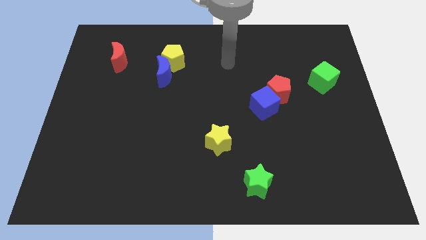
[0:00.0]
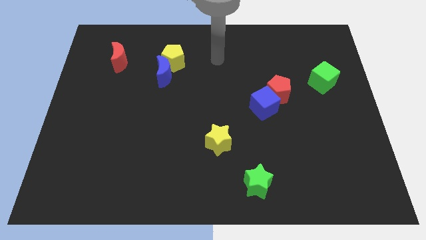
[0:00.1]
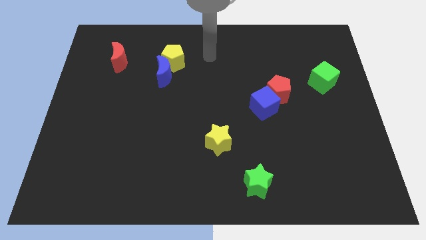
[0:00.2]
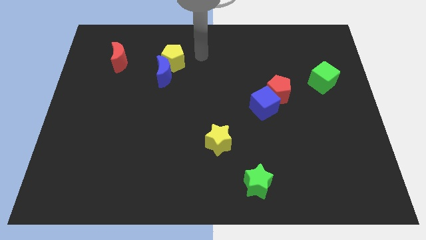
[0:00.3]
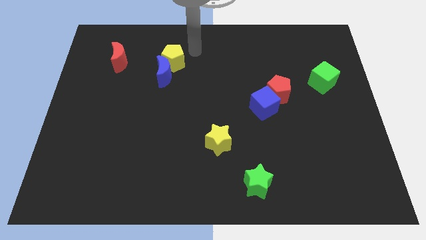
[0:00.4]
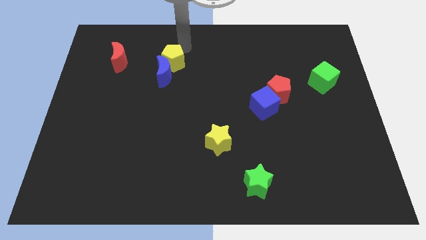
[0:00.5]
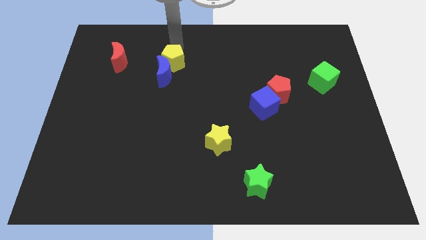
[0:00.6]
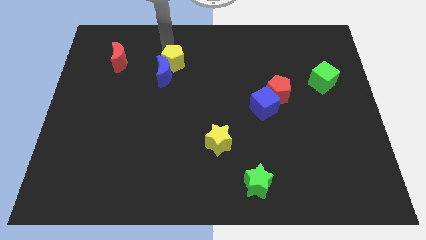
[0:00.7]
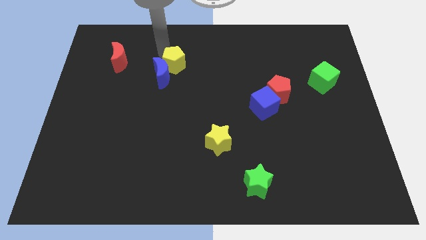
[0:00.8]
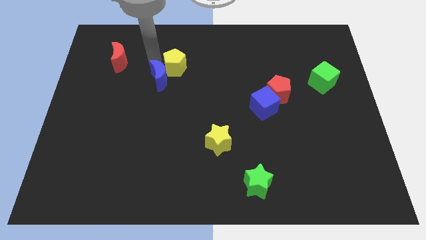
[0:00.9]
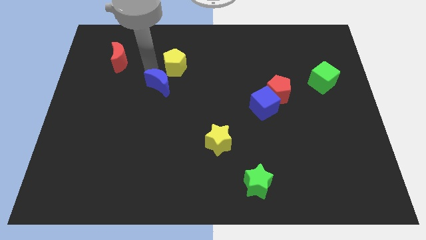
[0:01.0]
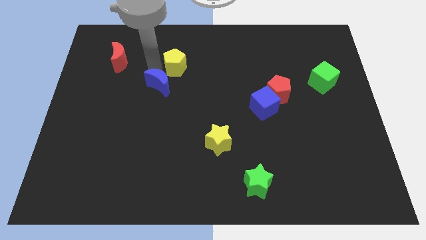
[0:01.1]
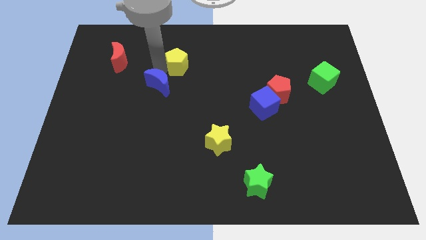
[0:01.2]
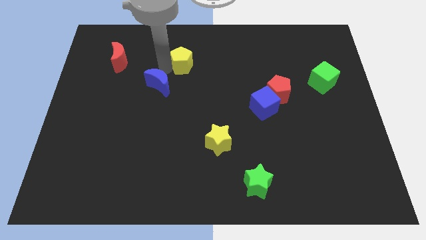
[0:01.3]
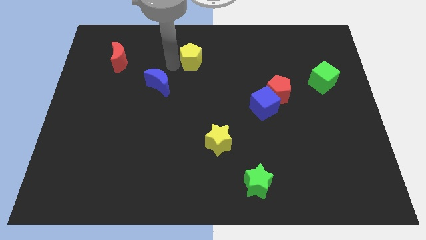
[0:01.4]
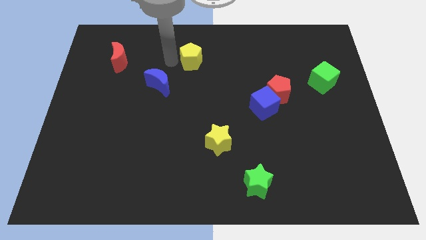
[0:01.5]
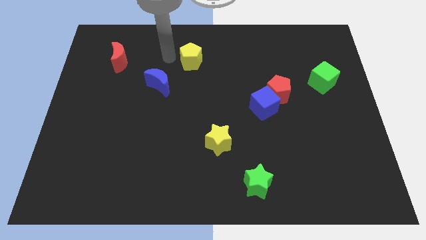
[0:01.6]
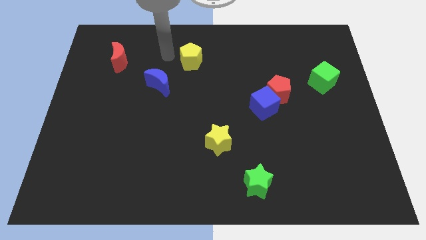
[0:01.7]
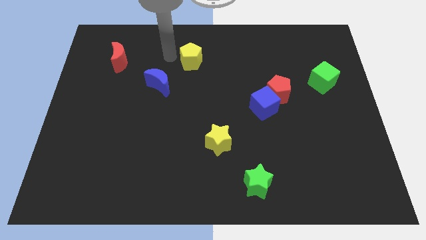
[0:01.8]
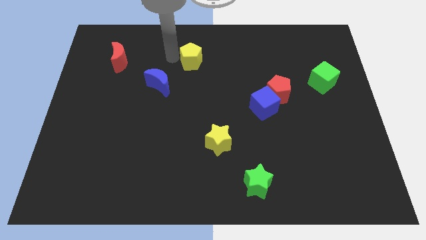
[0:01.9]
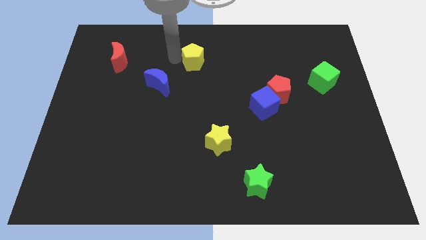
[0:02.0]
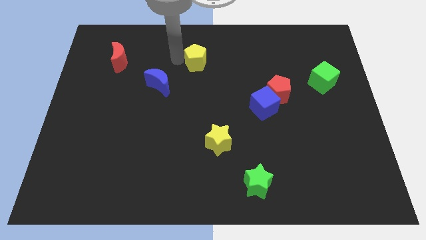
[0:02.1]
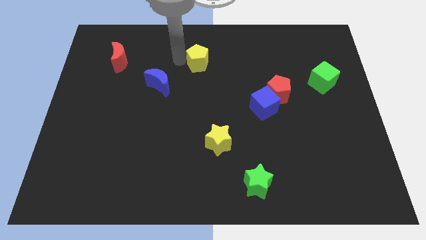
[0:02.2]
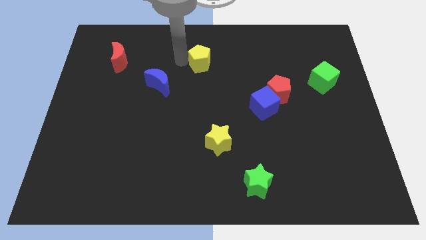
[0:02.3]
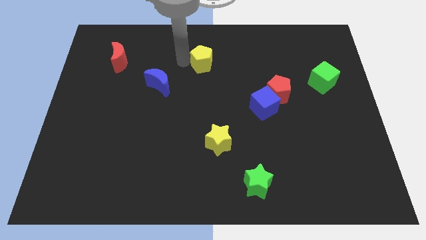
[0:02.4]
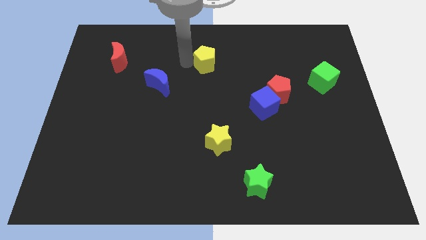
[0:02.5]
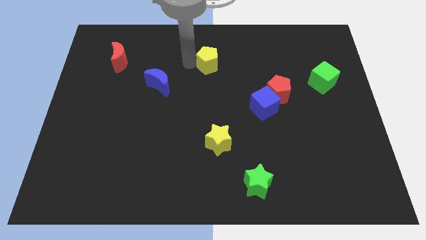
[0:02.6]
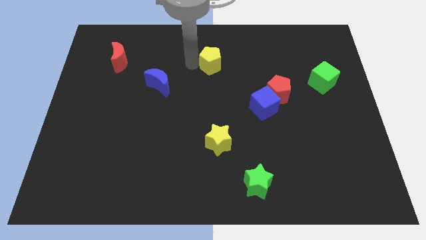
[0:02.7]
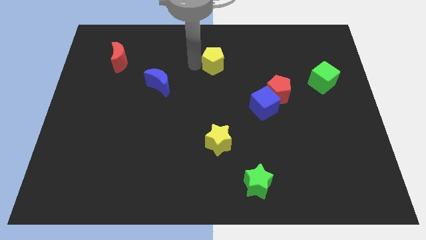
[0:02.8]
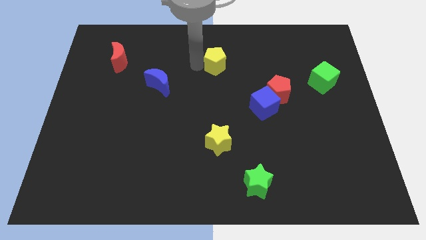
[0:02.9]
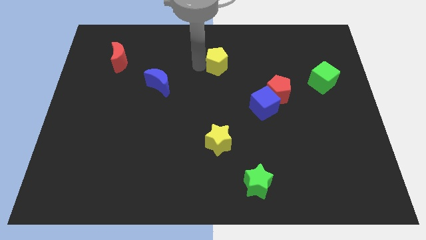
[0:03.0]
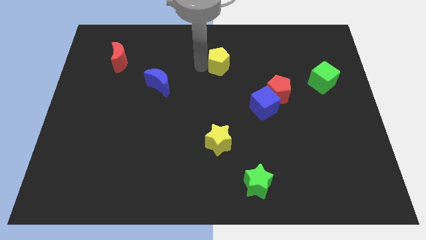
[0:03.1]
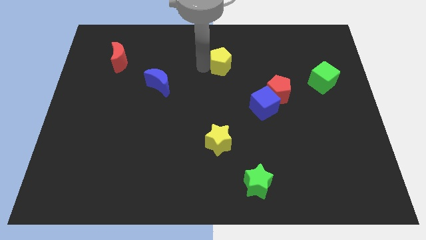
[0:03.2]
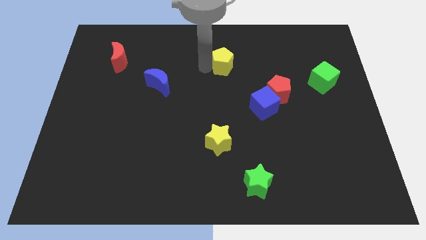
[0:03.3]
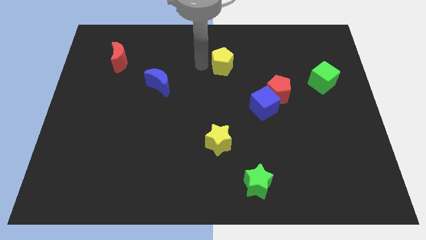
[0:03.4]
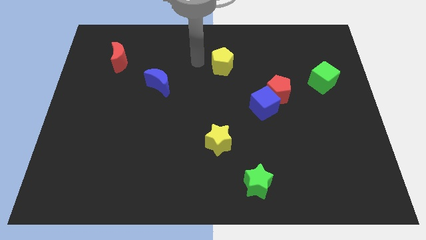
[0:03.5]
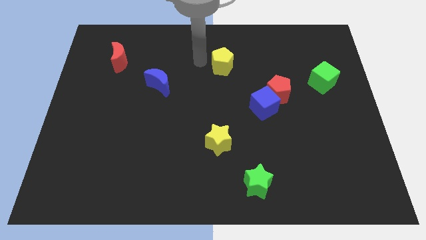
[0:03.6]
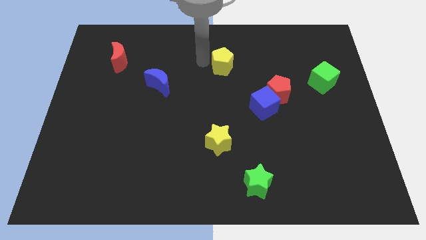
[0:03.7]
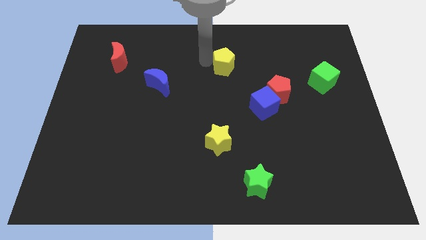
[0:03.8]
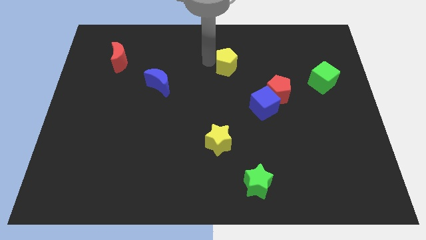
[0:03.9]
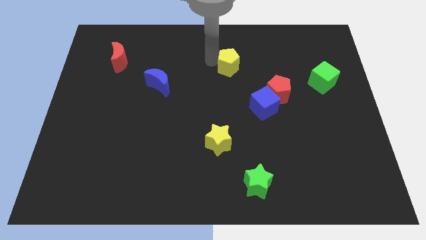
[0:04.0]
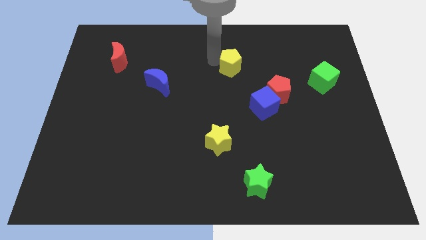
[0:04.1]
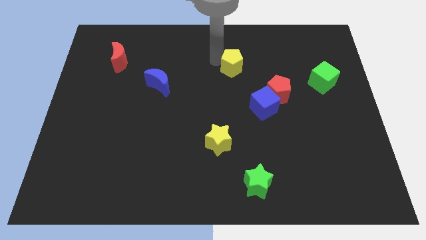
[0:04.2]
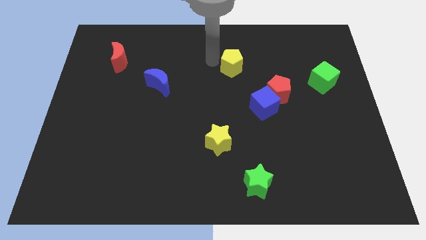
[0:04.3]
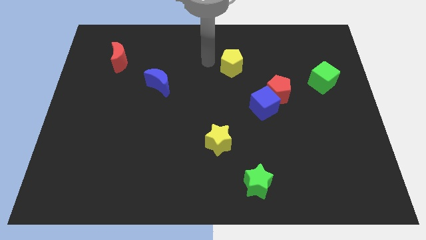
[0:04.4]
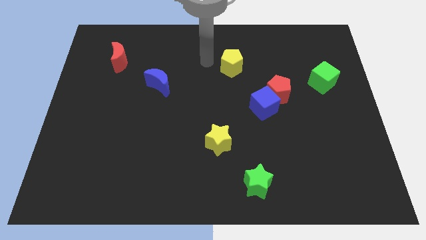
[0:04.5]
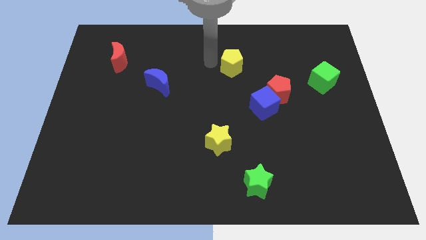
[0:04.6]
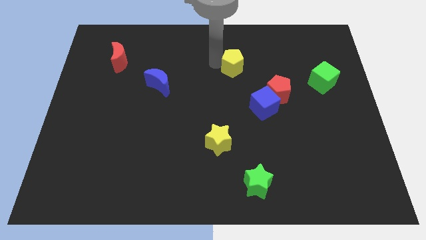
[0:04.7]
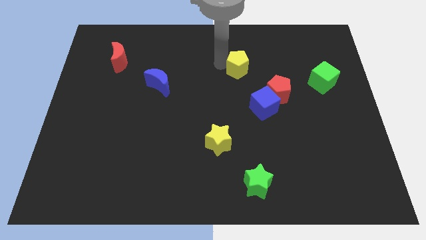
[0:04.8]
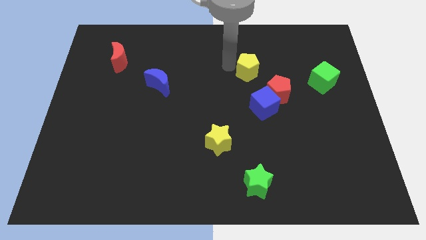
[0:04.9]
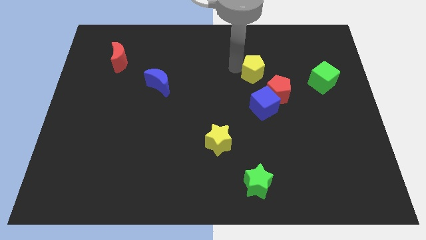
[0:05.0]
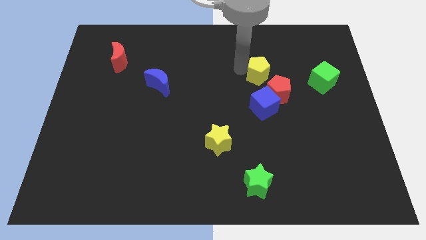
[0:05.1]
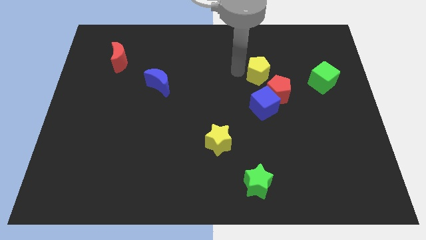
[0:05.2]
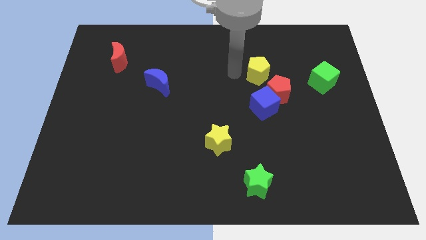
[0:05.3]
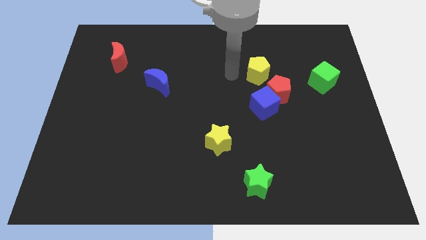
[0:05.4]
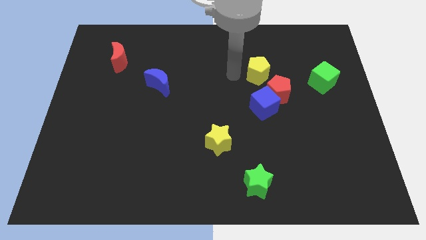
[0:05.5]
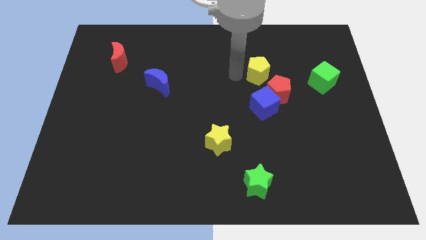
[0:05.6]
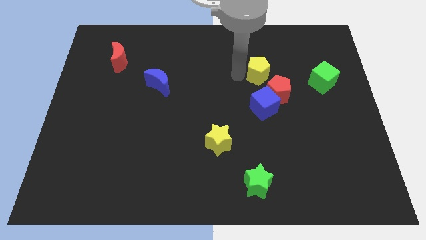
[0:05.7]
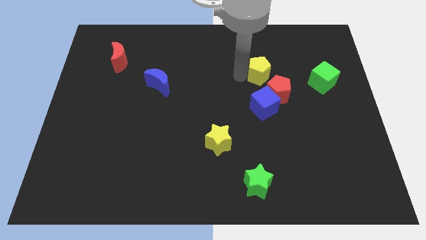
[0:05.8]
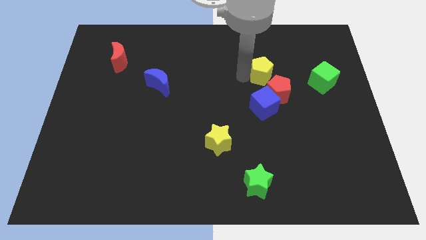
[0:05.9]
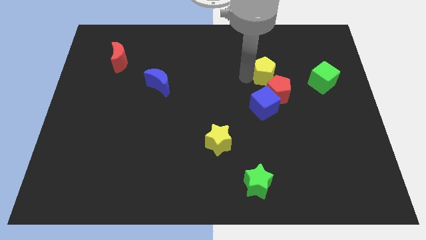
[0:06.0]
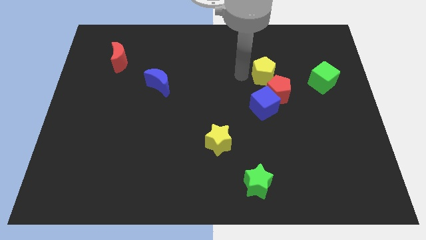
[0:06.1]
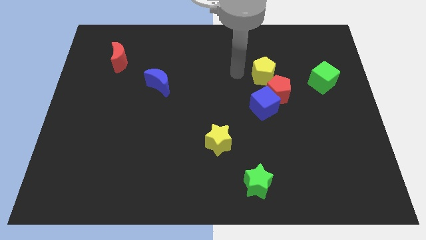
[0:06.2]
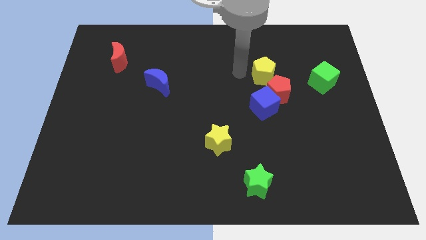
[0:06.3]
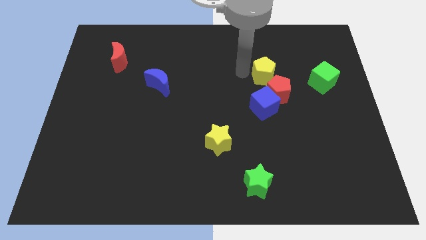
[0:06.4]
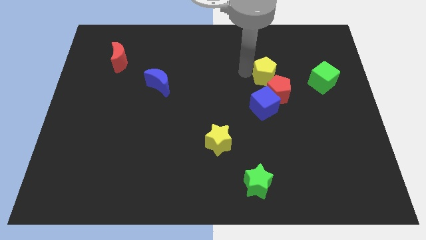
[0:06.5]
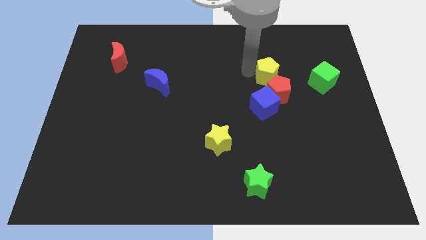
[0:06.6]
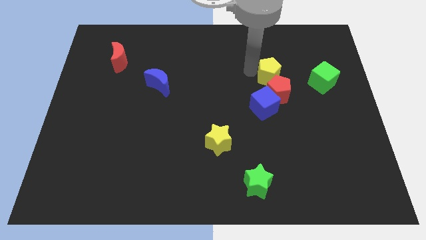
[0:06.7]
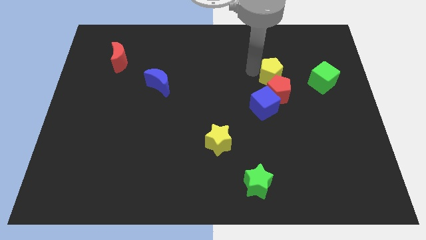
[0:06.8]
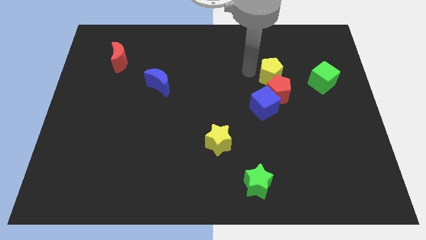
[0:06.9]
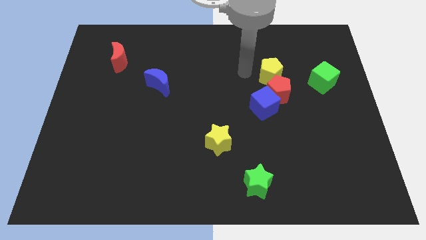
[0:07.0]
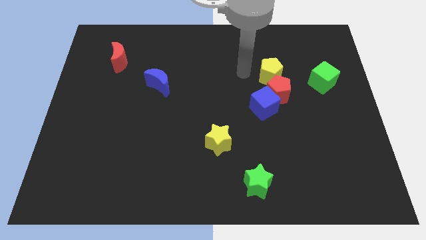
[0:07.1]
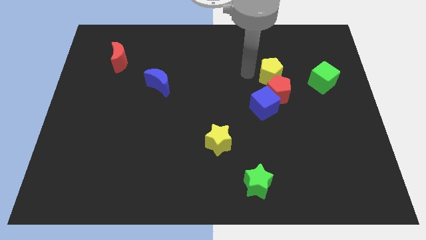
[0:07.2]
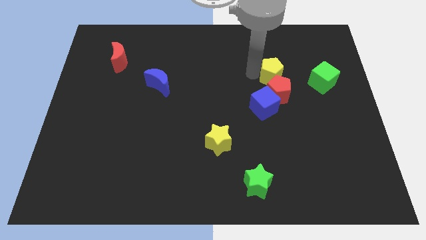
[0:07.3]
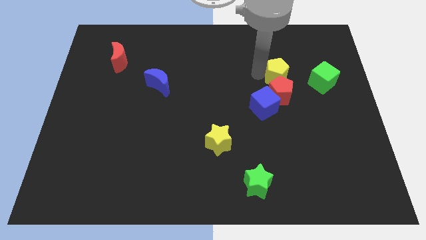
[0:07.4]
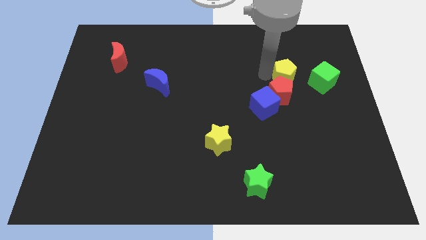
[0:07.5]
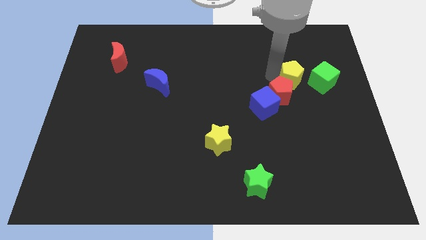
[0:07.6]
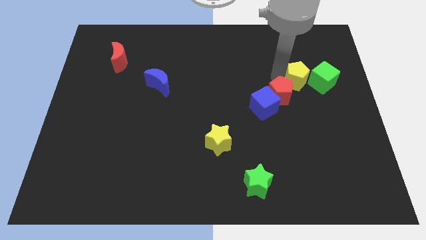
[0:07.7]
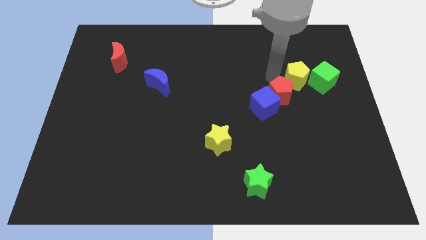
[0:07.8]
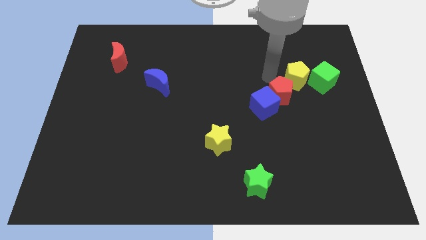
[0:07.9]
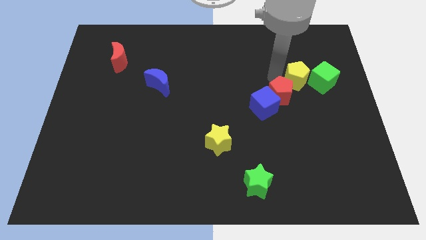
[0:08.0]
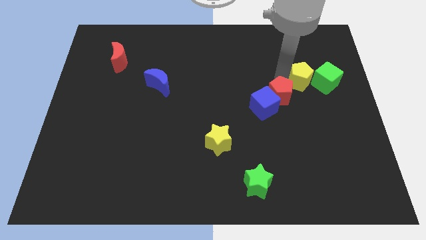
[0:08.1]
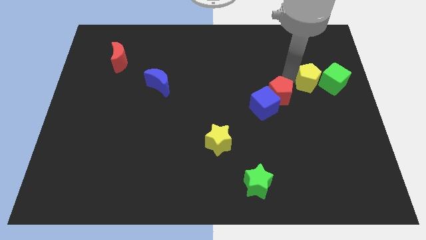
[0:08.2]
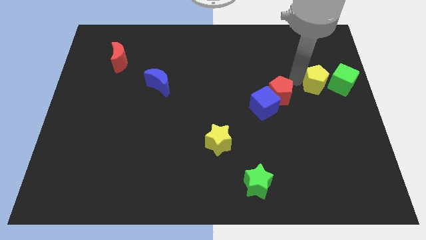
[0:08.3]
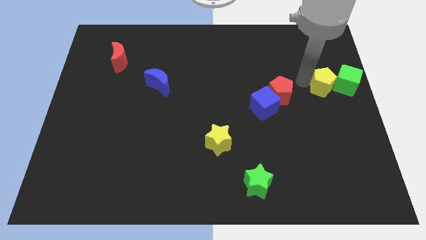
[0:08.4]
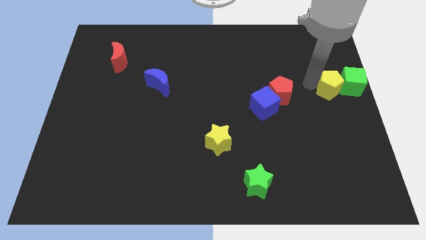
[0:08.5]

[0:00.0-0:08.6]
push the yellow pentagon towards the green cube
